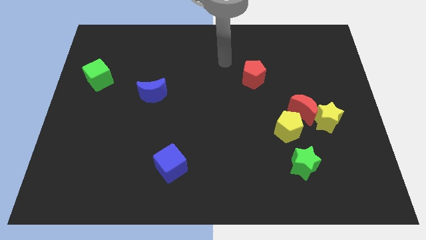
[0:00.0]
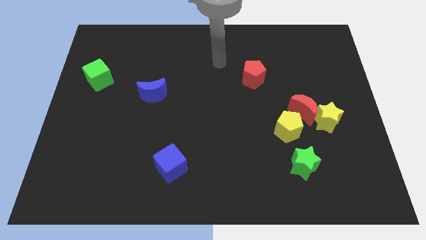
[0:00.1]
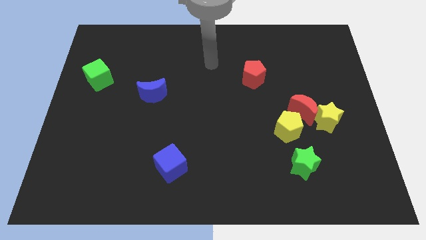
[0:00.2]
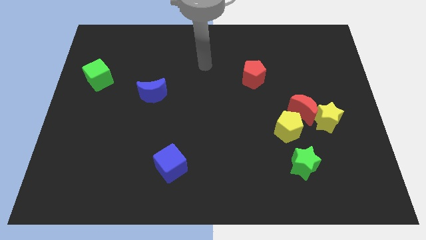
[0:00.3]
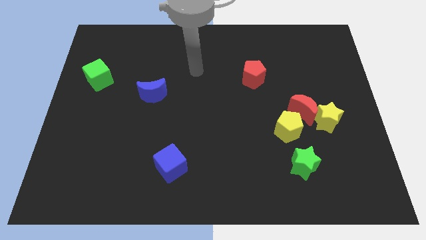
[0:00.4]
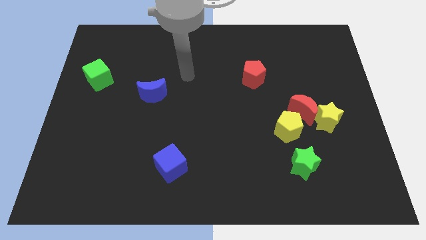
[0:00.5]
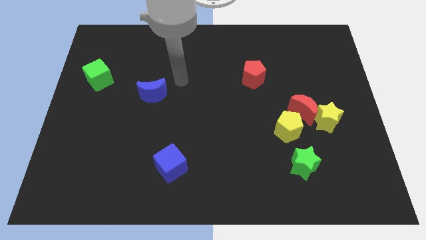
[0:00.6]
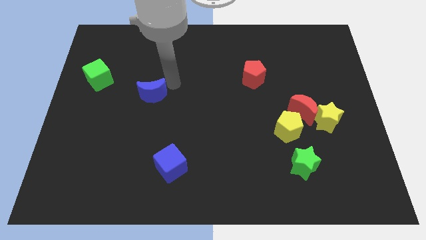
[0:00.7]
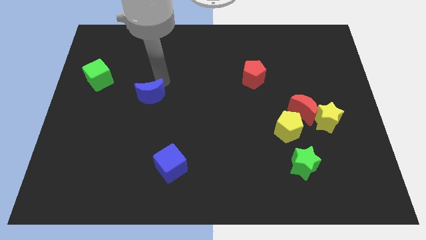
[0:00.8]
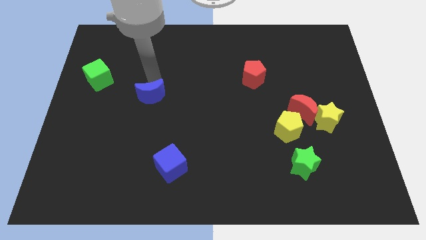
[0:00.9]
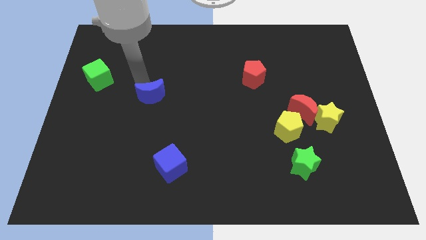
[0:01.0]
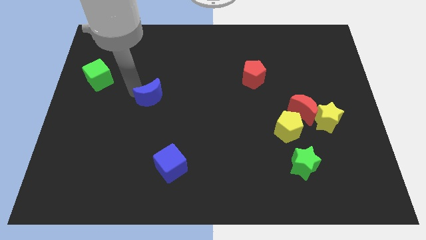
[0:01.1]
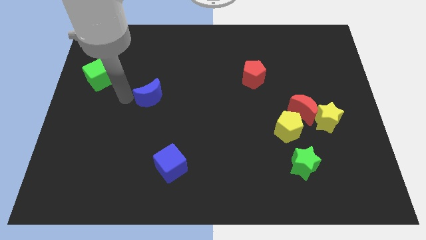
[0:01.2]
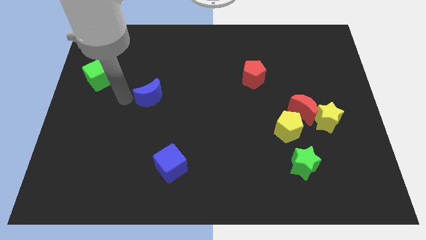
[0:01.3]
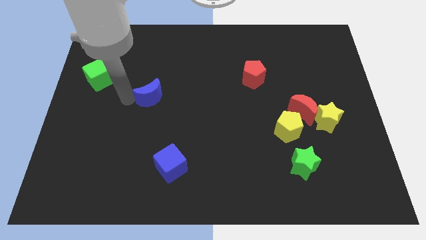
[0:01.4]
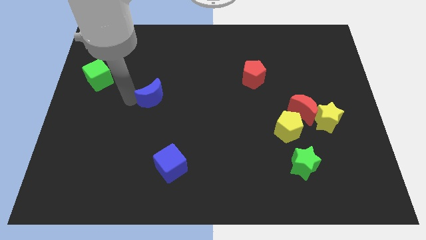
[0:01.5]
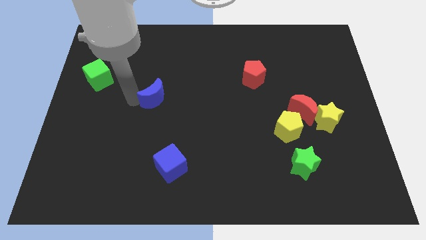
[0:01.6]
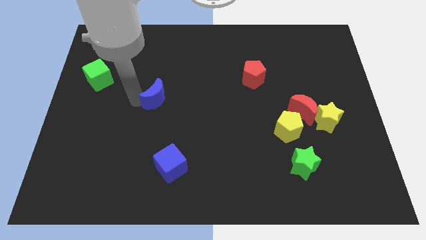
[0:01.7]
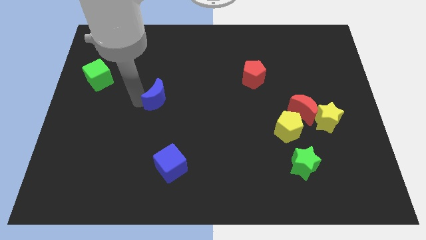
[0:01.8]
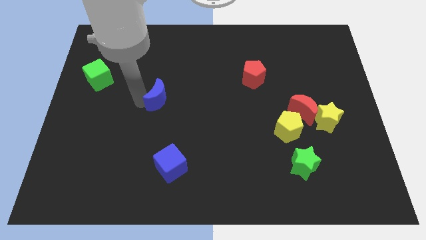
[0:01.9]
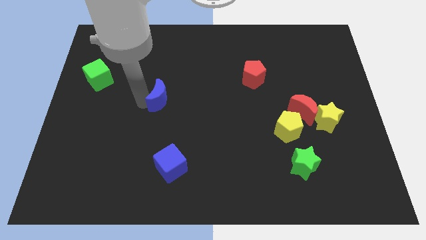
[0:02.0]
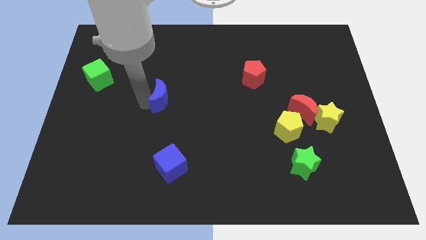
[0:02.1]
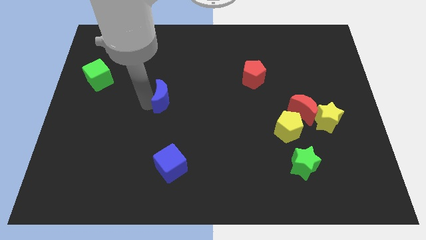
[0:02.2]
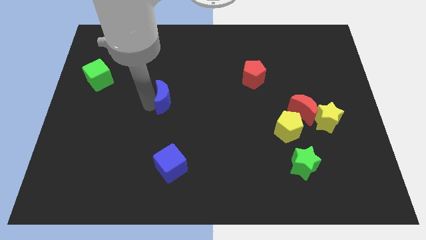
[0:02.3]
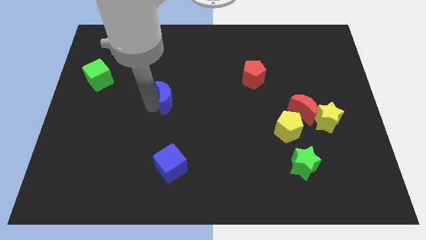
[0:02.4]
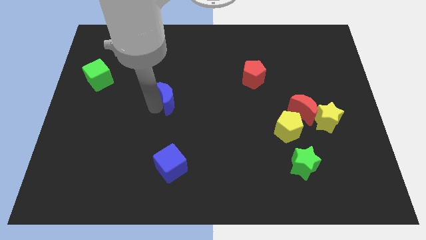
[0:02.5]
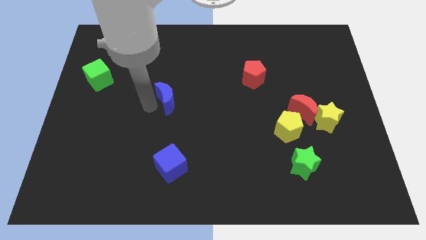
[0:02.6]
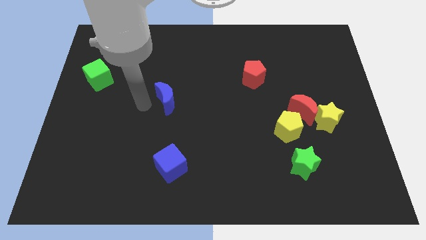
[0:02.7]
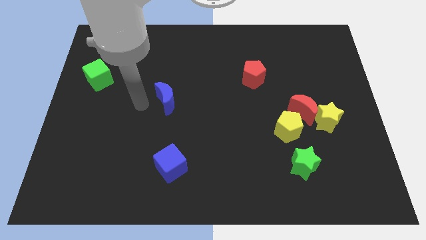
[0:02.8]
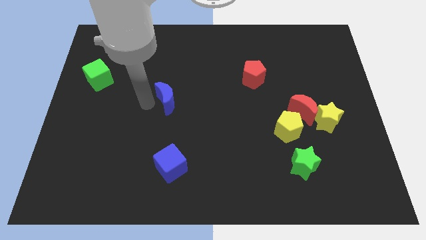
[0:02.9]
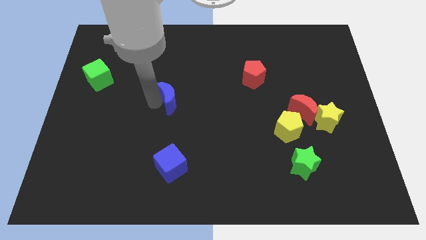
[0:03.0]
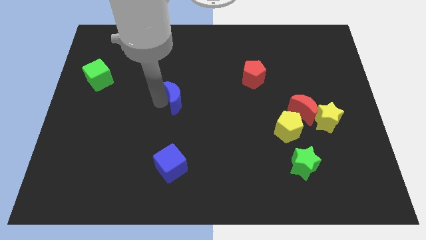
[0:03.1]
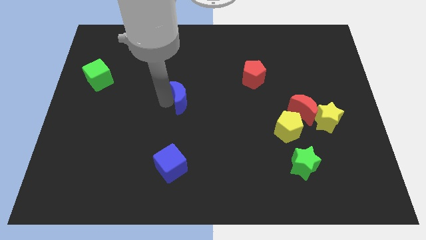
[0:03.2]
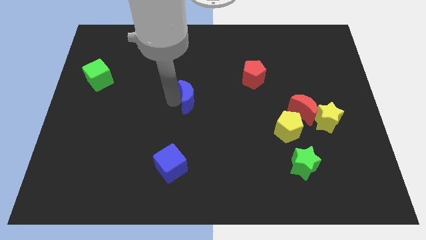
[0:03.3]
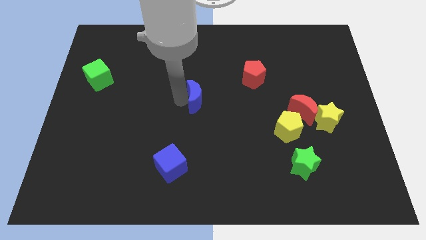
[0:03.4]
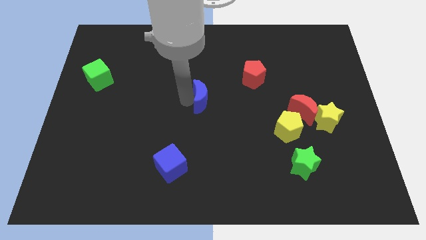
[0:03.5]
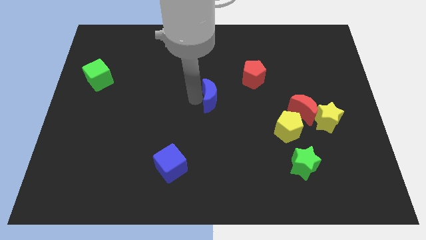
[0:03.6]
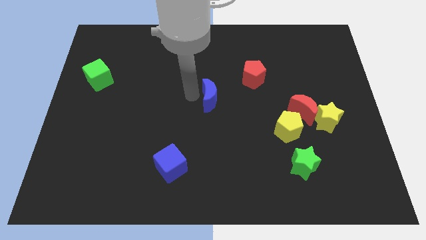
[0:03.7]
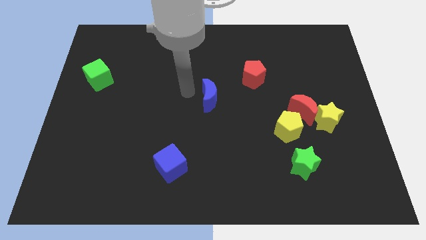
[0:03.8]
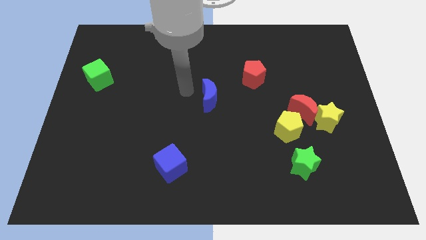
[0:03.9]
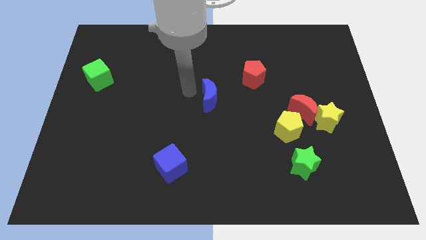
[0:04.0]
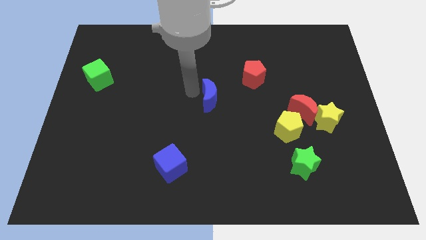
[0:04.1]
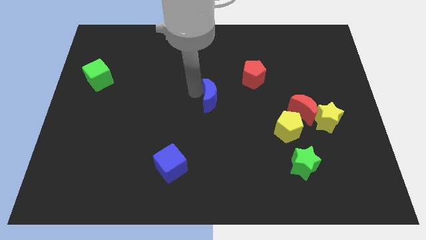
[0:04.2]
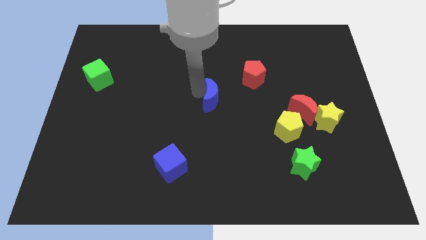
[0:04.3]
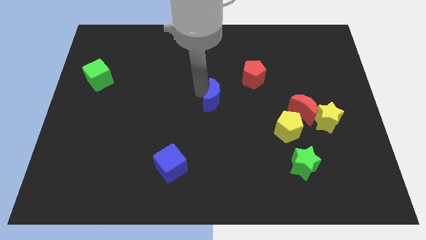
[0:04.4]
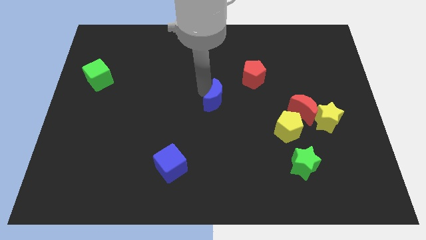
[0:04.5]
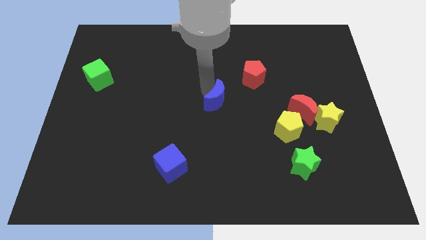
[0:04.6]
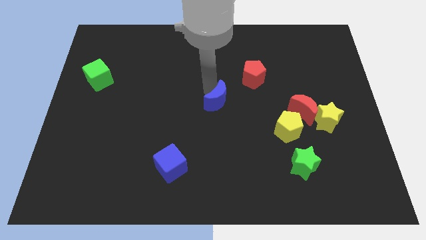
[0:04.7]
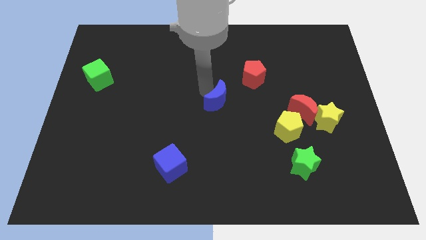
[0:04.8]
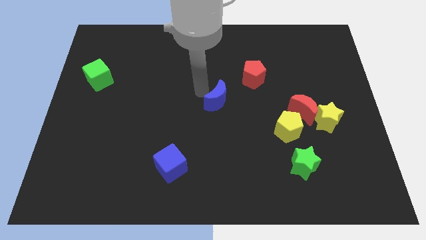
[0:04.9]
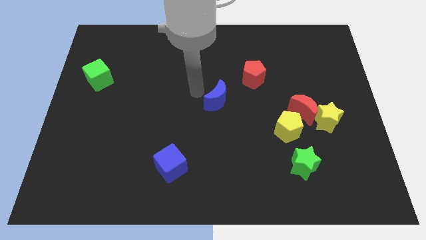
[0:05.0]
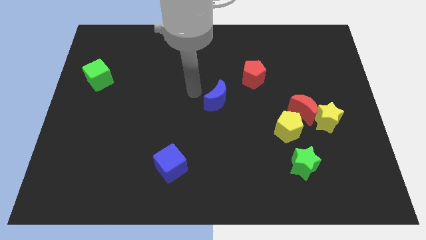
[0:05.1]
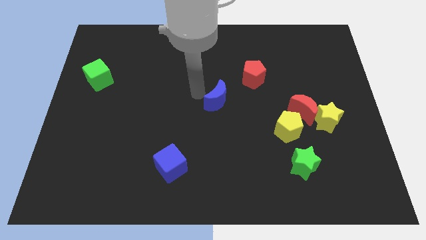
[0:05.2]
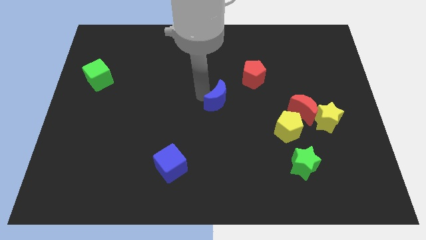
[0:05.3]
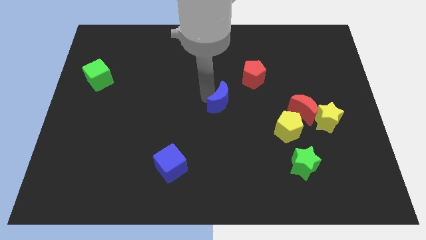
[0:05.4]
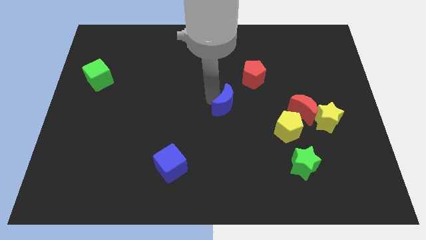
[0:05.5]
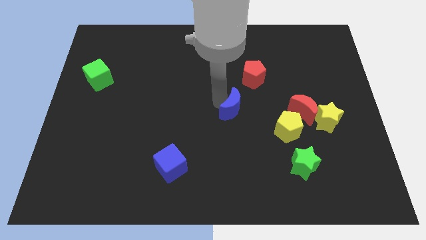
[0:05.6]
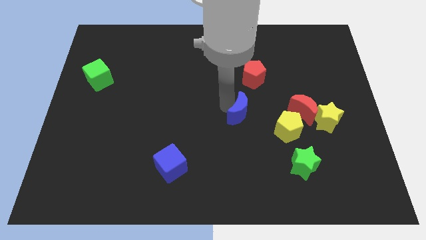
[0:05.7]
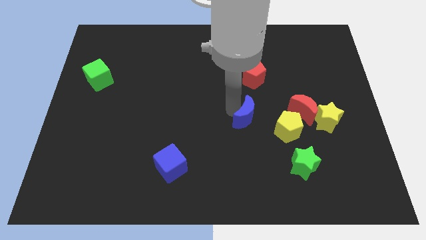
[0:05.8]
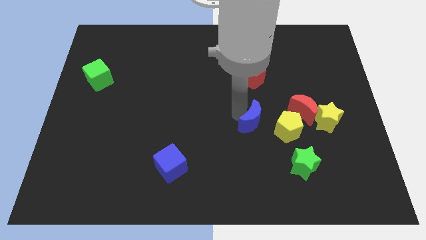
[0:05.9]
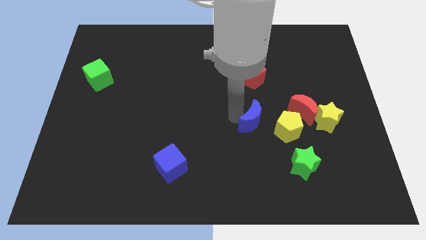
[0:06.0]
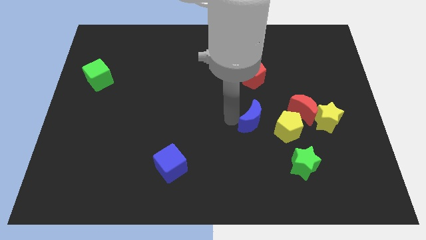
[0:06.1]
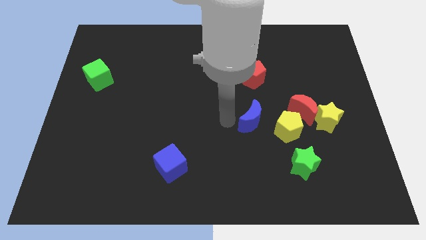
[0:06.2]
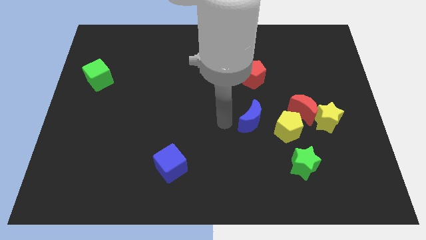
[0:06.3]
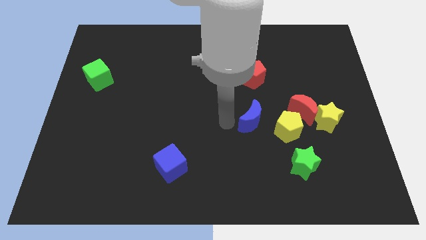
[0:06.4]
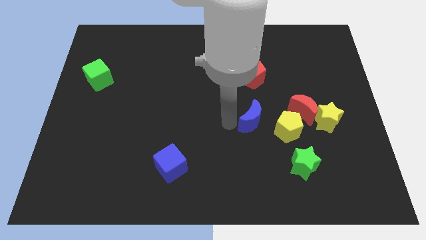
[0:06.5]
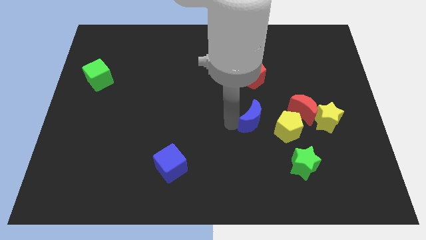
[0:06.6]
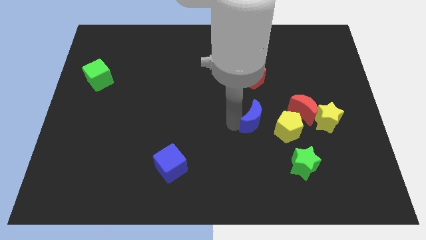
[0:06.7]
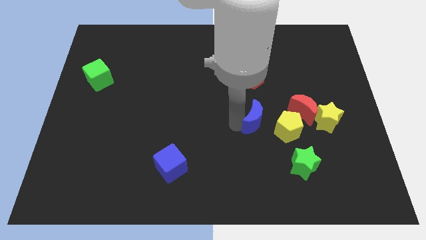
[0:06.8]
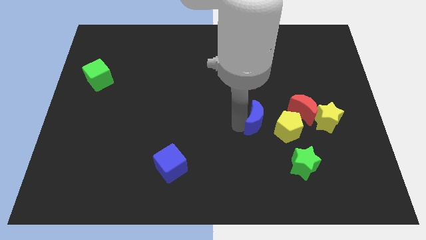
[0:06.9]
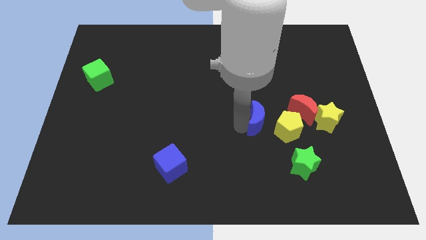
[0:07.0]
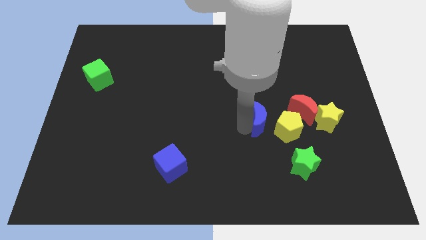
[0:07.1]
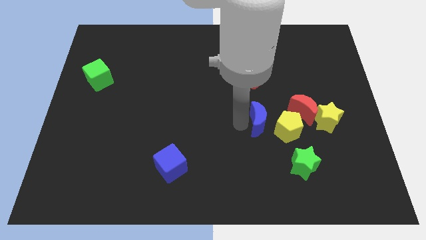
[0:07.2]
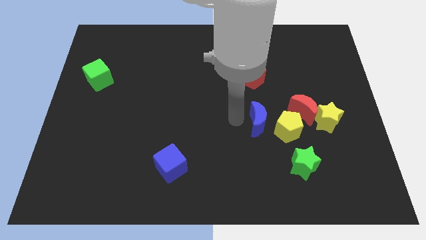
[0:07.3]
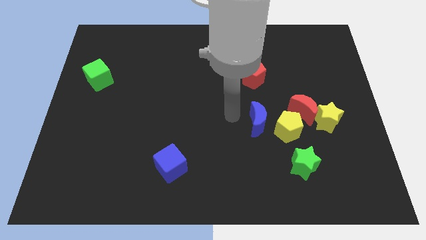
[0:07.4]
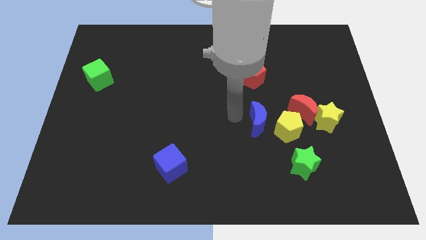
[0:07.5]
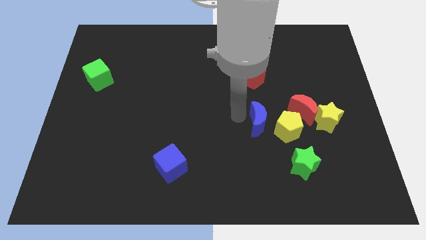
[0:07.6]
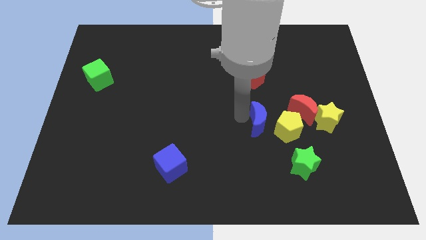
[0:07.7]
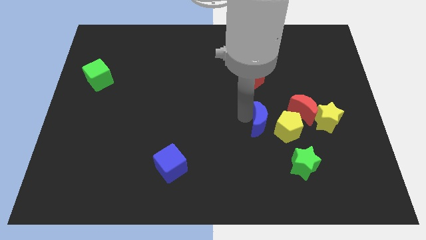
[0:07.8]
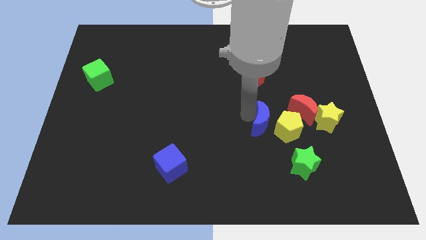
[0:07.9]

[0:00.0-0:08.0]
slide the blue moon next to the yellow pentagon
